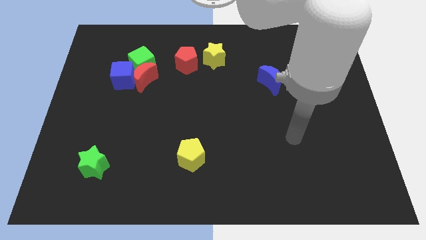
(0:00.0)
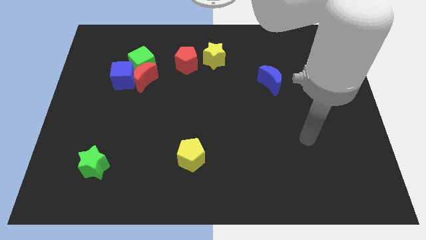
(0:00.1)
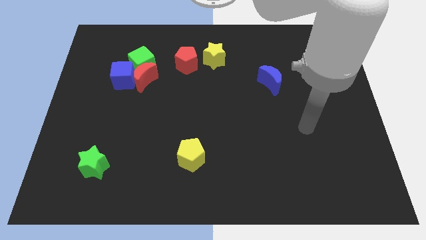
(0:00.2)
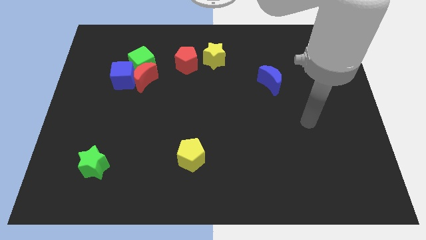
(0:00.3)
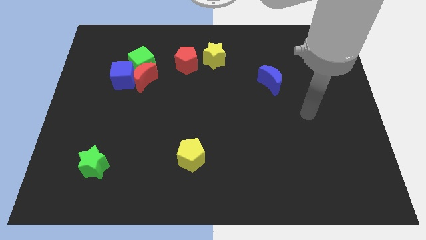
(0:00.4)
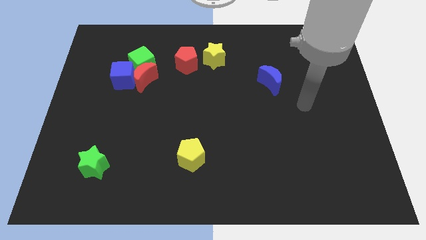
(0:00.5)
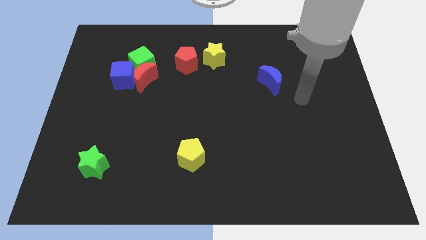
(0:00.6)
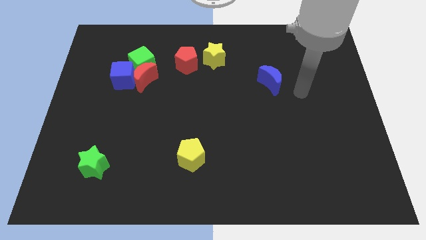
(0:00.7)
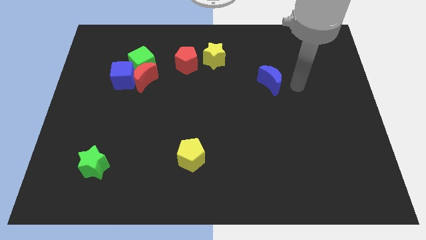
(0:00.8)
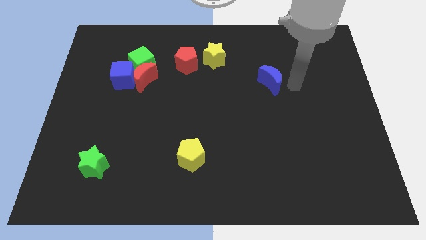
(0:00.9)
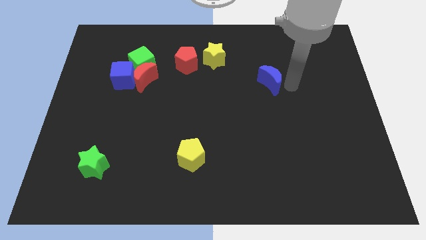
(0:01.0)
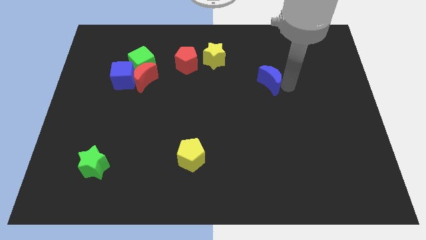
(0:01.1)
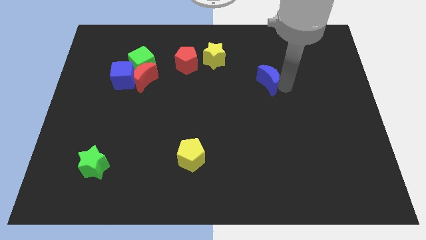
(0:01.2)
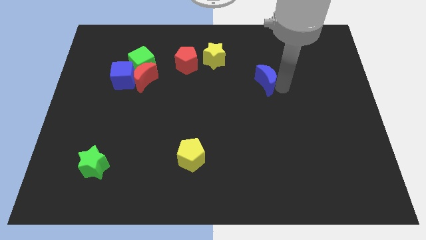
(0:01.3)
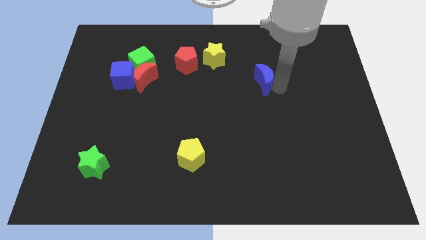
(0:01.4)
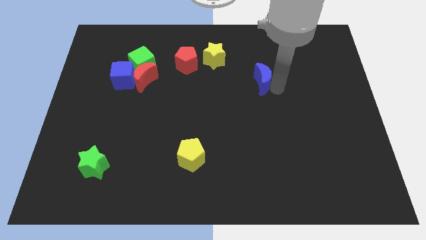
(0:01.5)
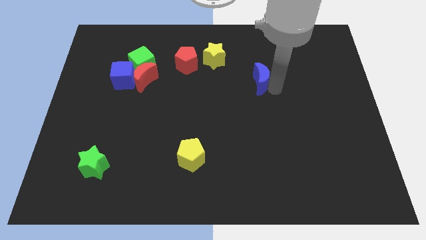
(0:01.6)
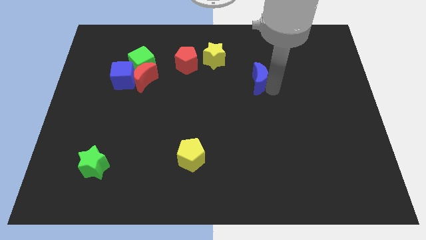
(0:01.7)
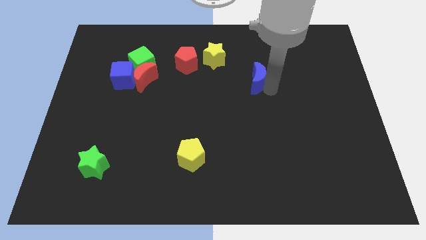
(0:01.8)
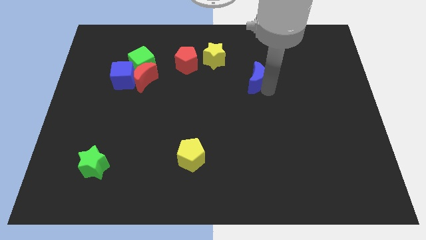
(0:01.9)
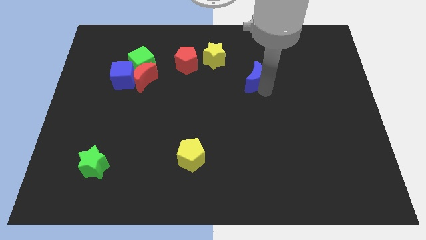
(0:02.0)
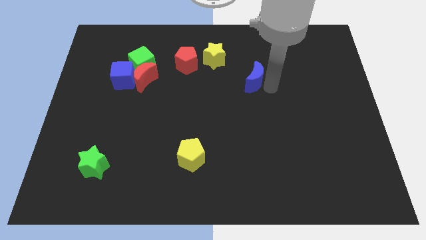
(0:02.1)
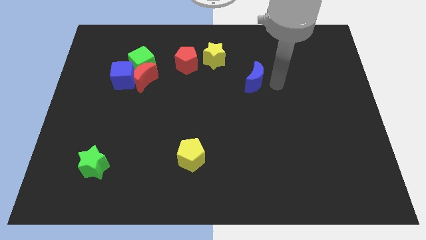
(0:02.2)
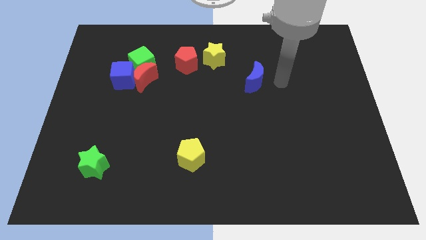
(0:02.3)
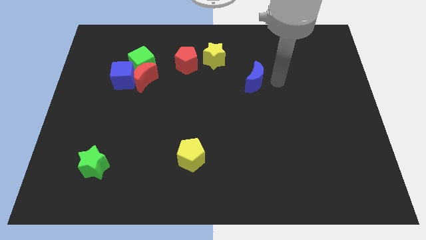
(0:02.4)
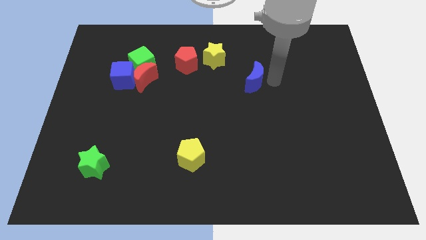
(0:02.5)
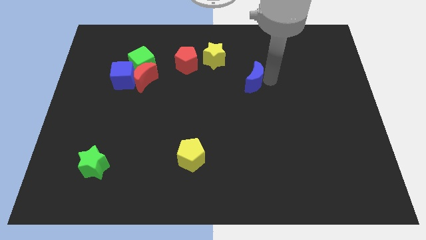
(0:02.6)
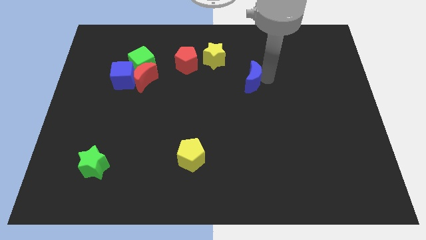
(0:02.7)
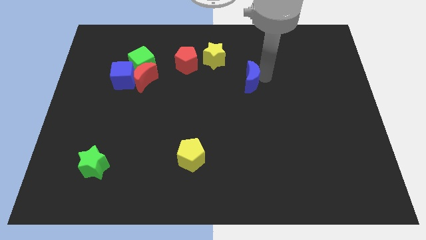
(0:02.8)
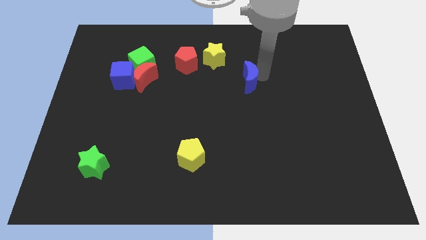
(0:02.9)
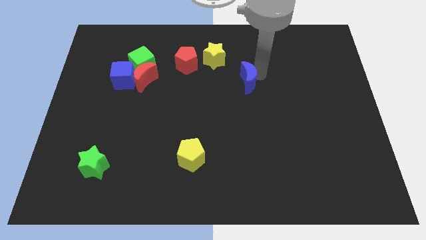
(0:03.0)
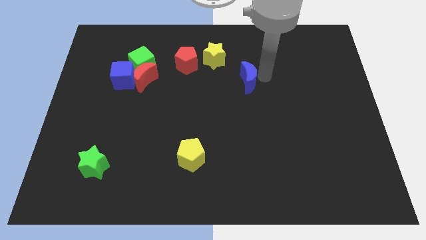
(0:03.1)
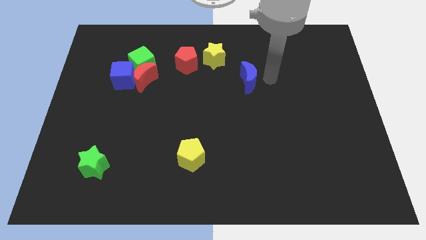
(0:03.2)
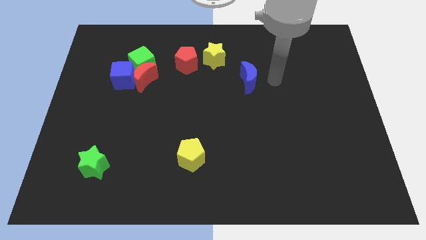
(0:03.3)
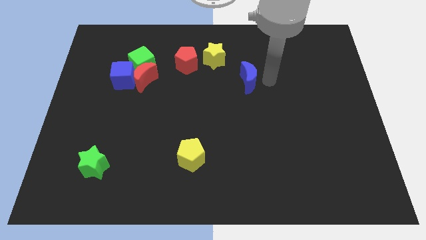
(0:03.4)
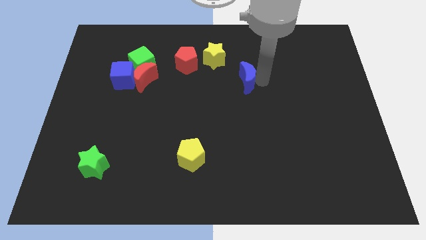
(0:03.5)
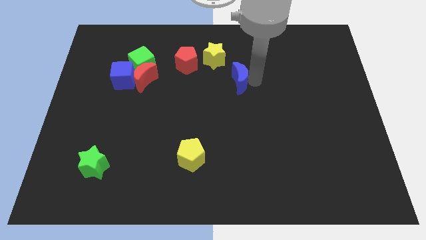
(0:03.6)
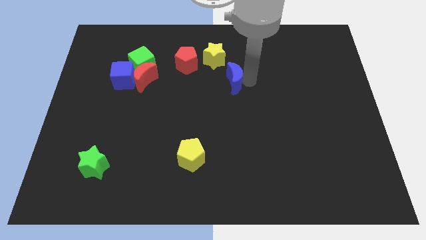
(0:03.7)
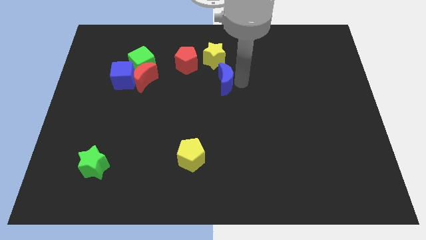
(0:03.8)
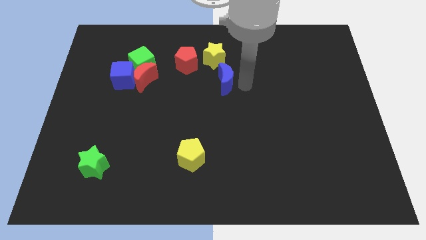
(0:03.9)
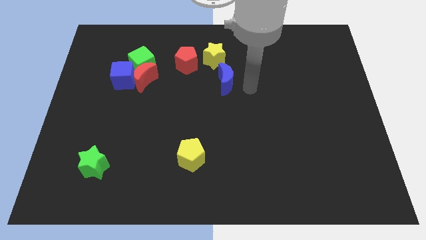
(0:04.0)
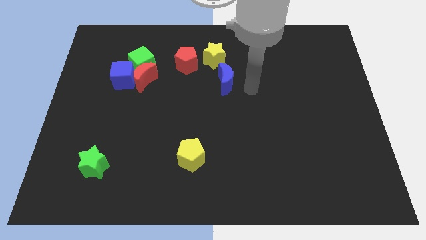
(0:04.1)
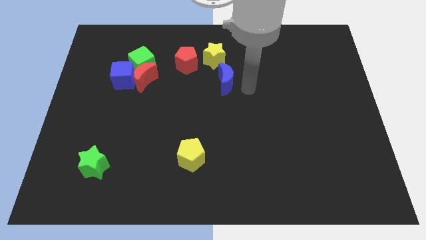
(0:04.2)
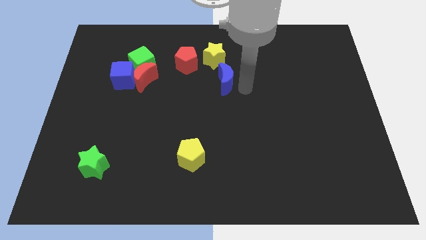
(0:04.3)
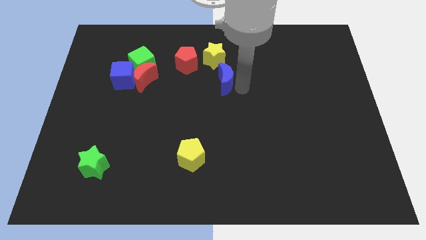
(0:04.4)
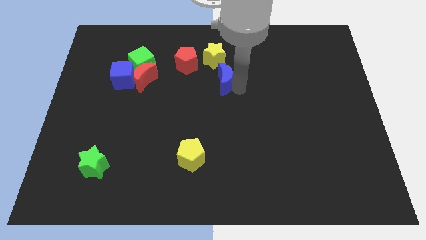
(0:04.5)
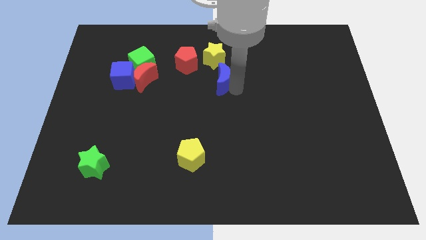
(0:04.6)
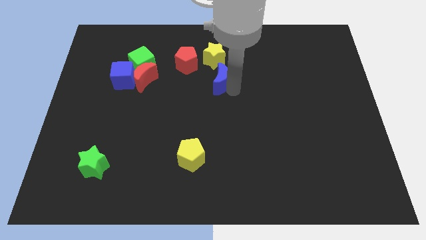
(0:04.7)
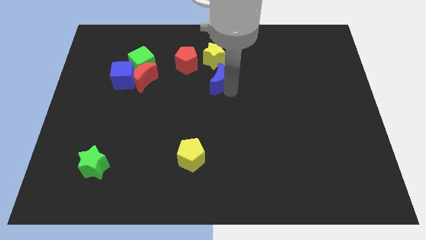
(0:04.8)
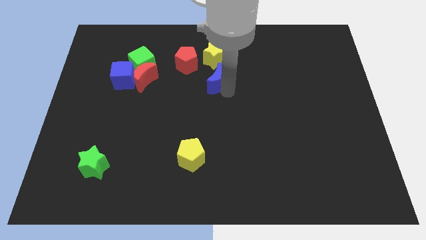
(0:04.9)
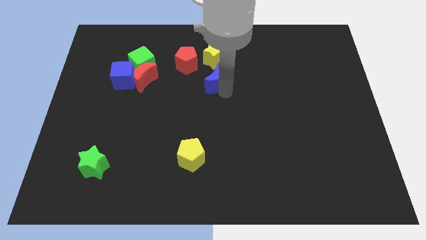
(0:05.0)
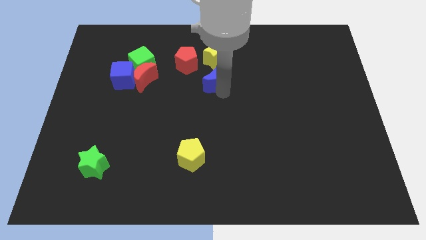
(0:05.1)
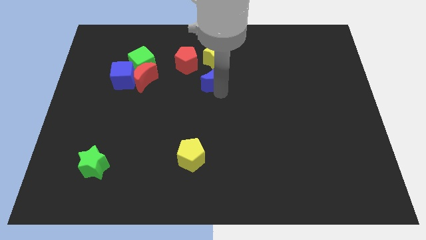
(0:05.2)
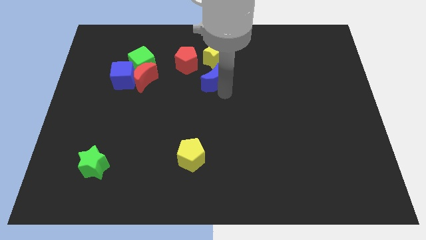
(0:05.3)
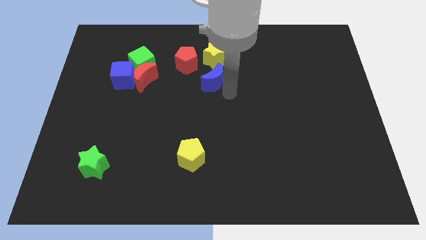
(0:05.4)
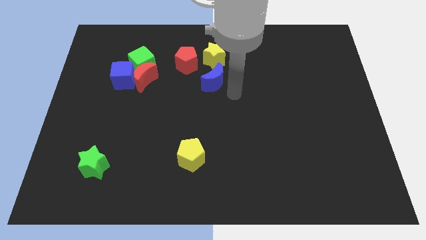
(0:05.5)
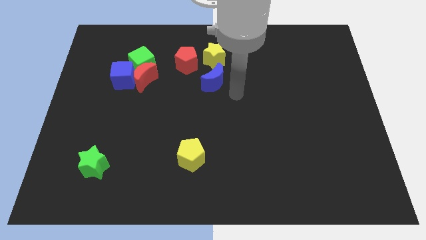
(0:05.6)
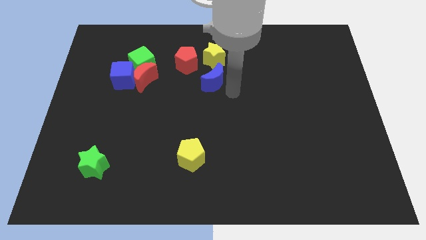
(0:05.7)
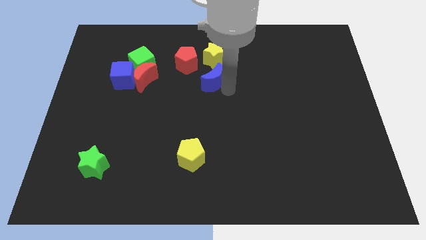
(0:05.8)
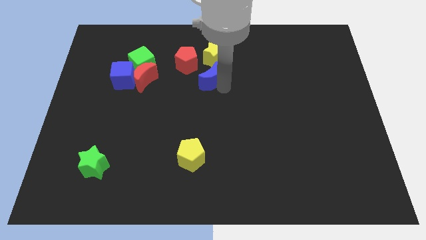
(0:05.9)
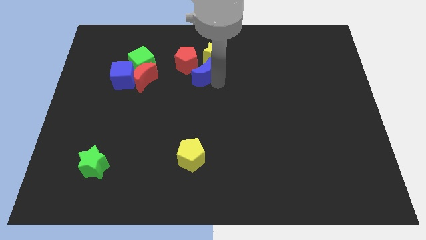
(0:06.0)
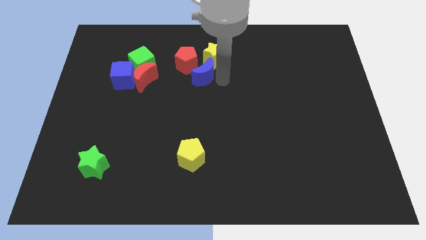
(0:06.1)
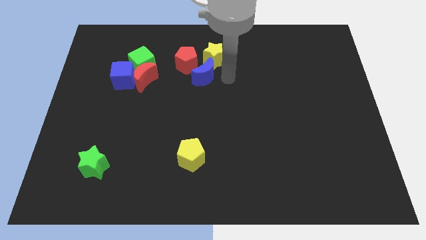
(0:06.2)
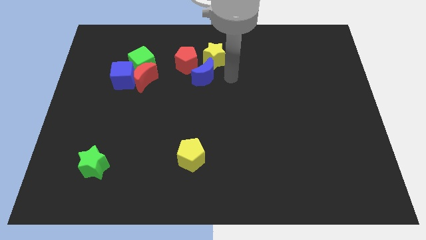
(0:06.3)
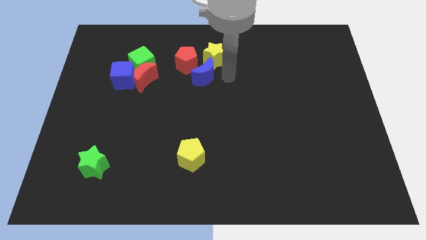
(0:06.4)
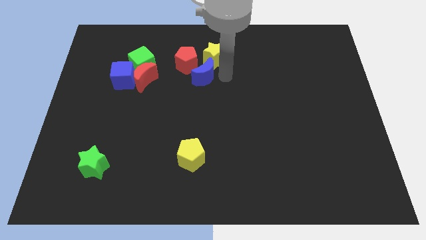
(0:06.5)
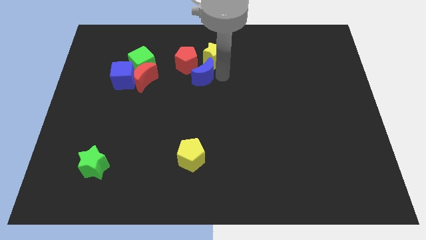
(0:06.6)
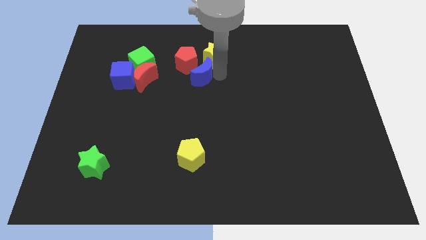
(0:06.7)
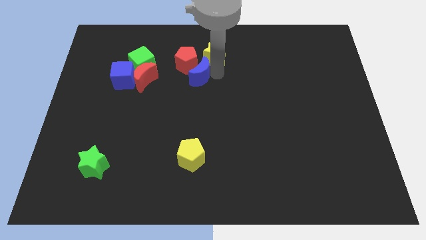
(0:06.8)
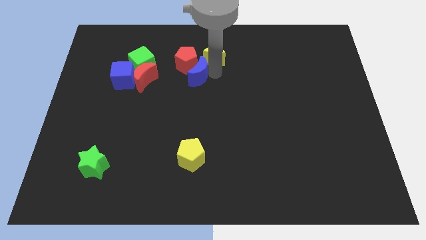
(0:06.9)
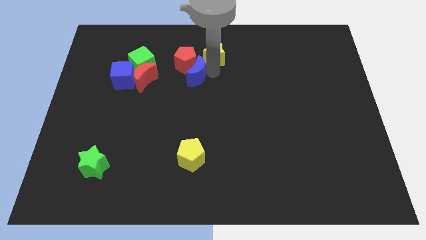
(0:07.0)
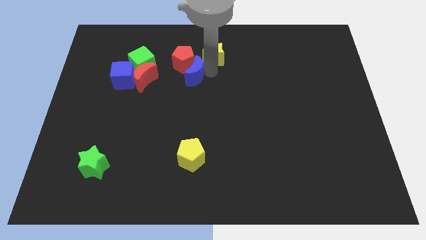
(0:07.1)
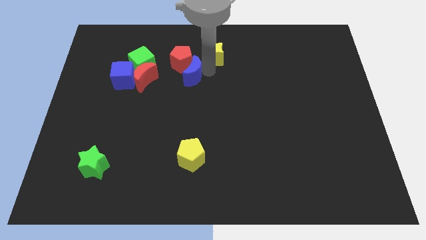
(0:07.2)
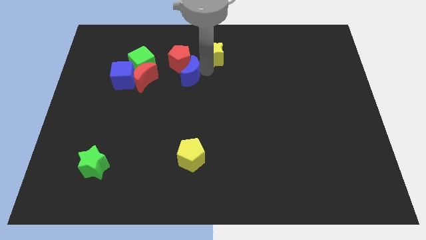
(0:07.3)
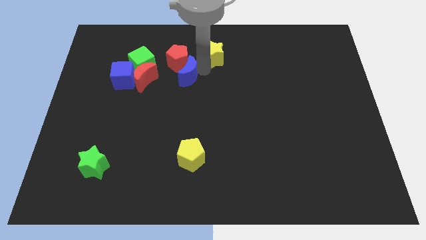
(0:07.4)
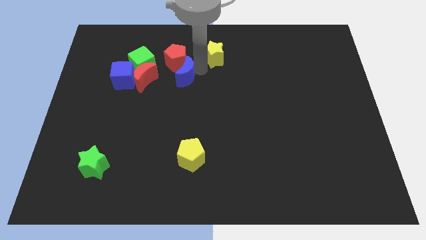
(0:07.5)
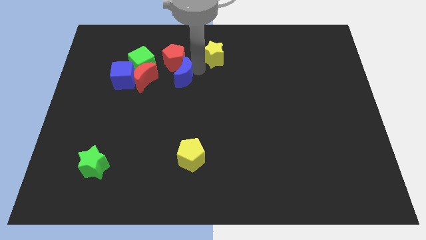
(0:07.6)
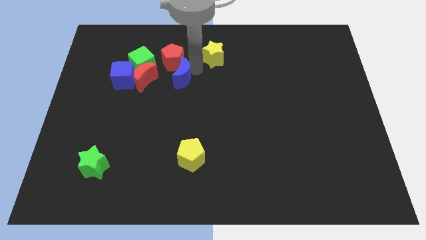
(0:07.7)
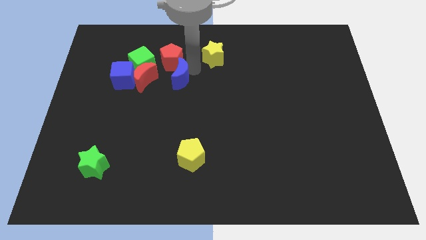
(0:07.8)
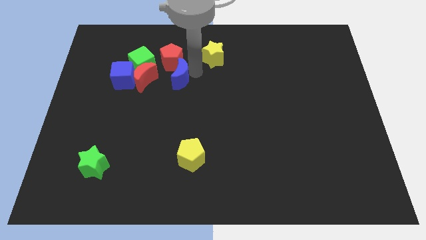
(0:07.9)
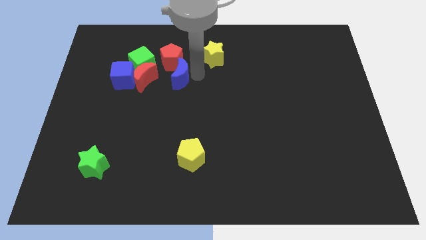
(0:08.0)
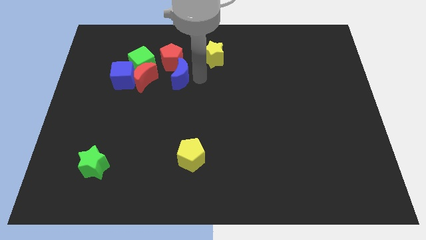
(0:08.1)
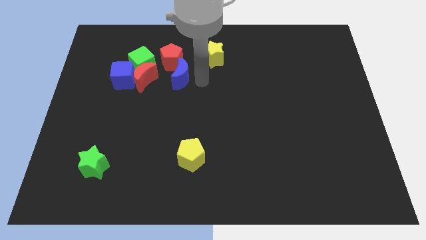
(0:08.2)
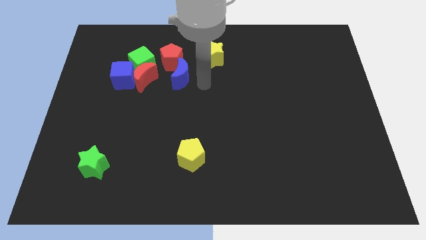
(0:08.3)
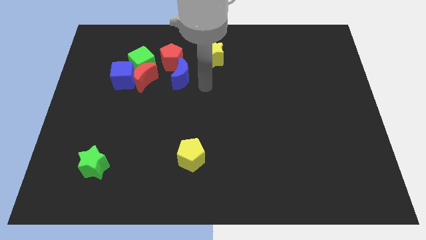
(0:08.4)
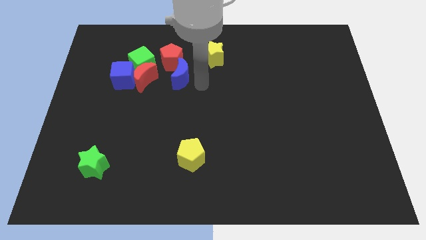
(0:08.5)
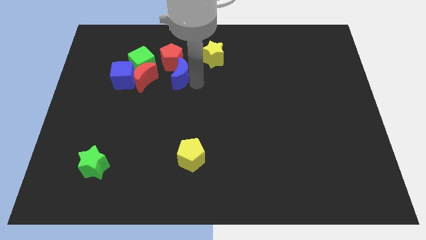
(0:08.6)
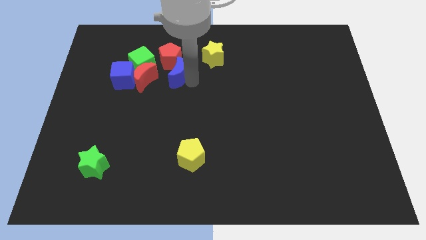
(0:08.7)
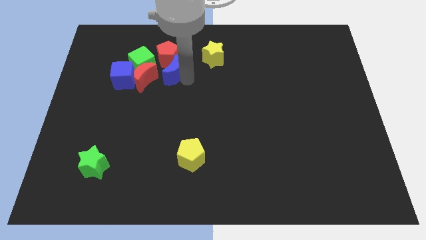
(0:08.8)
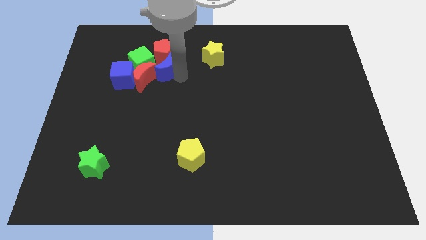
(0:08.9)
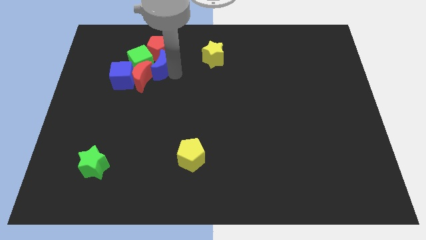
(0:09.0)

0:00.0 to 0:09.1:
move the blue moon diagonally up and to the right of the blue cube
